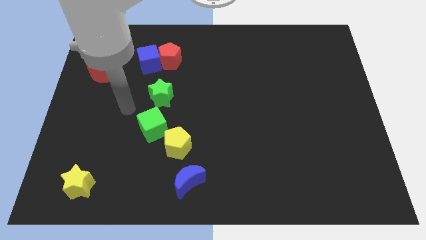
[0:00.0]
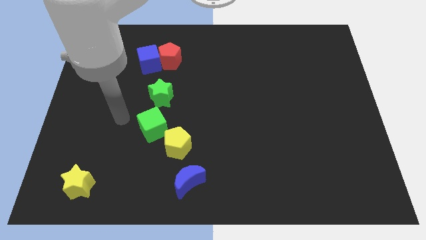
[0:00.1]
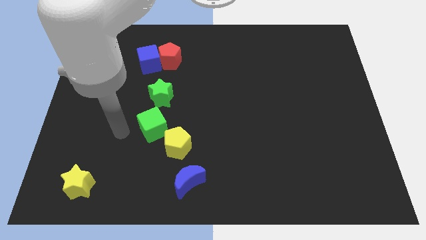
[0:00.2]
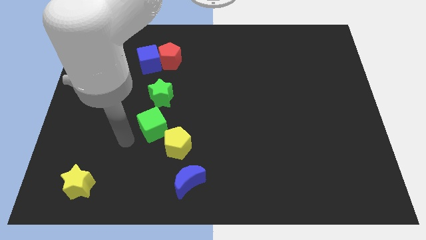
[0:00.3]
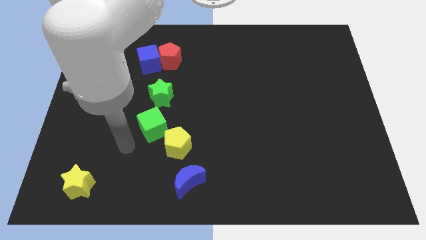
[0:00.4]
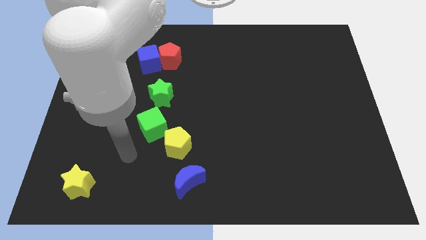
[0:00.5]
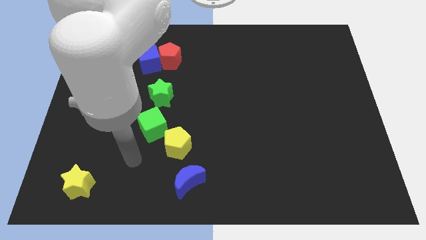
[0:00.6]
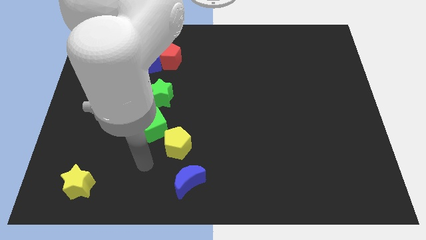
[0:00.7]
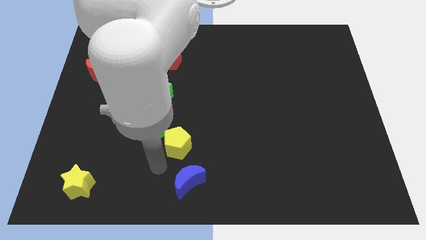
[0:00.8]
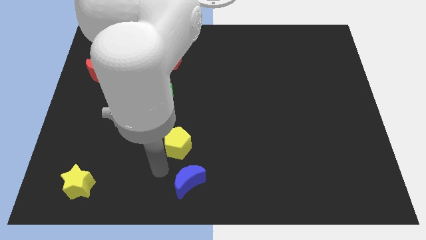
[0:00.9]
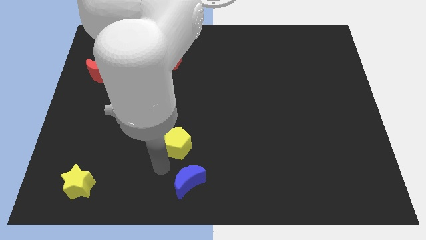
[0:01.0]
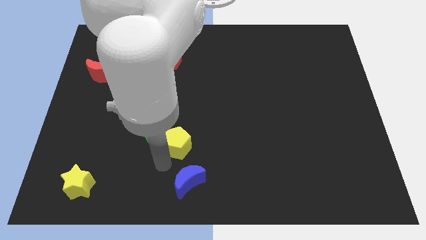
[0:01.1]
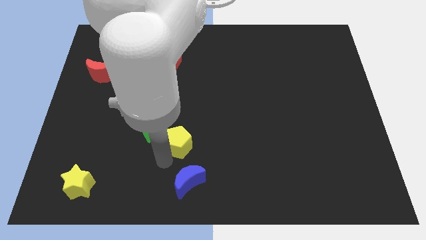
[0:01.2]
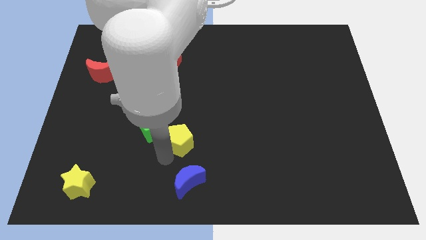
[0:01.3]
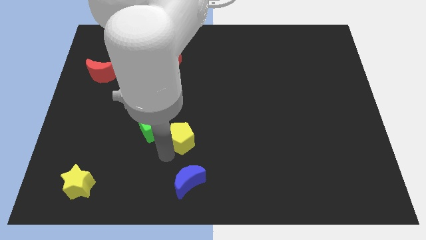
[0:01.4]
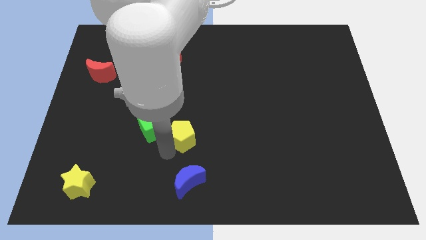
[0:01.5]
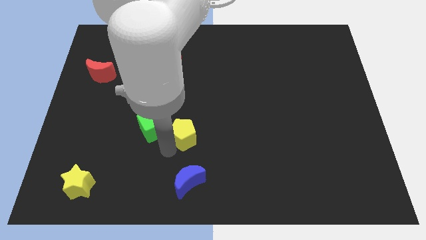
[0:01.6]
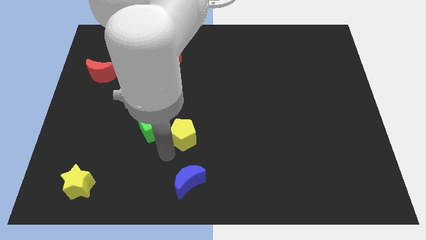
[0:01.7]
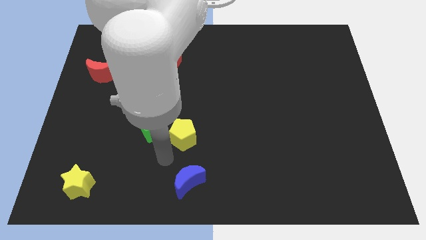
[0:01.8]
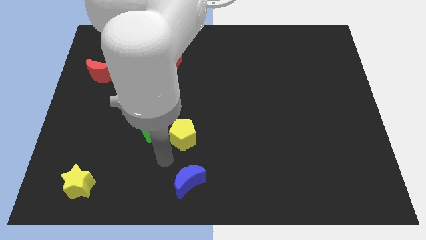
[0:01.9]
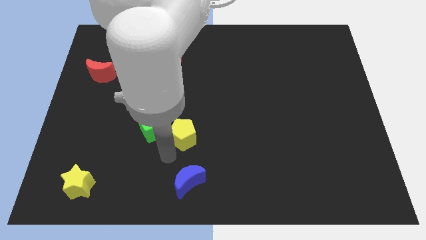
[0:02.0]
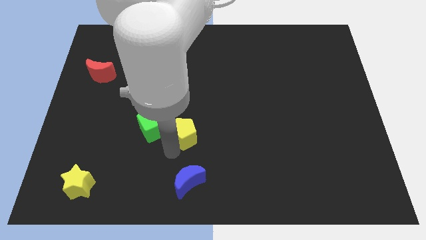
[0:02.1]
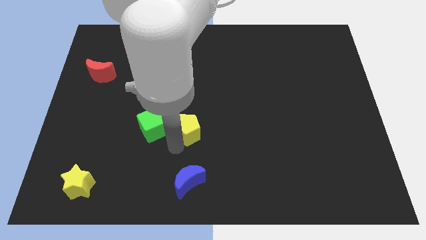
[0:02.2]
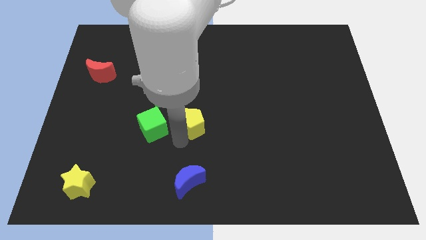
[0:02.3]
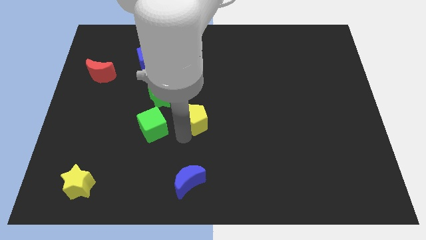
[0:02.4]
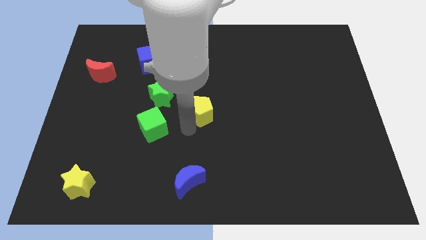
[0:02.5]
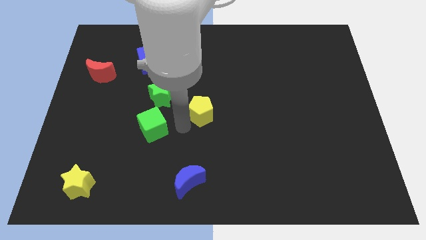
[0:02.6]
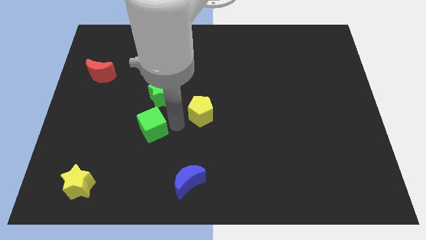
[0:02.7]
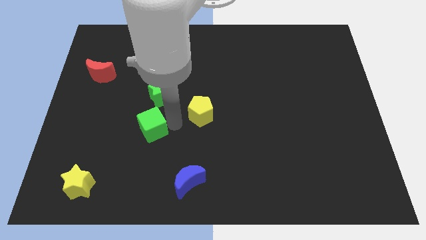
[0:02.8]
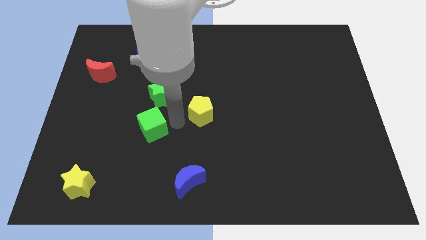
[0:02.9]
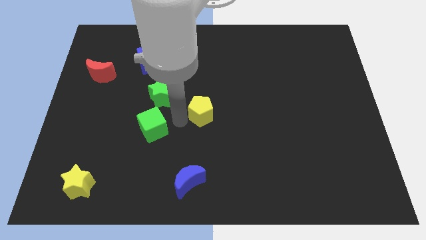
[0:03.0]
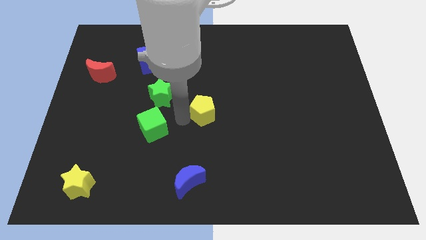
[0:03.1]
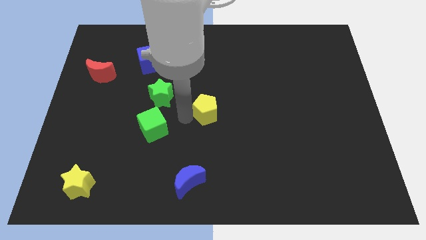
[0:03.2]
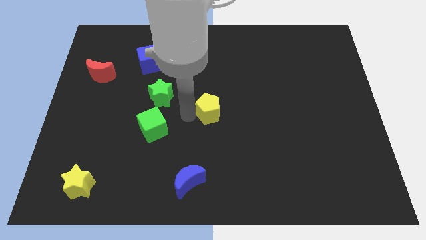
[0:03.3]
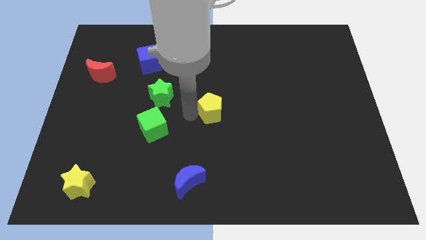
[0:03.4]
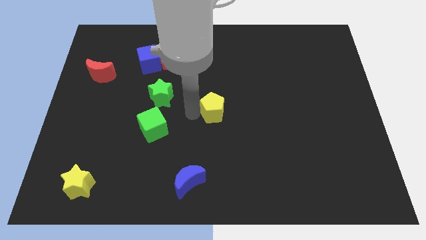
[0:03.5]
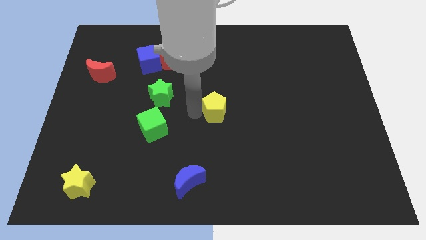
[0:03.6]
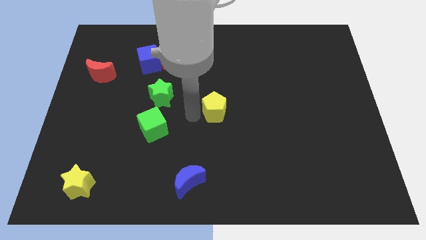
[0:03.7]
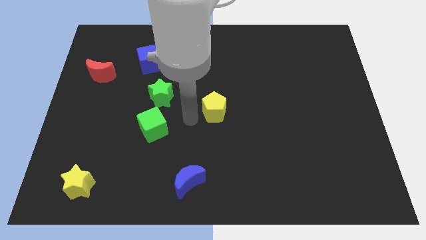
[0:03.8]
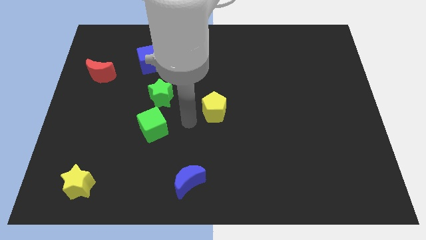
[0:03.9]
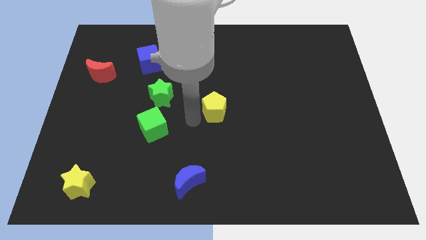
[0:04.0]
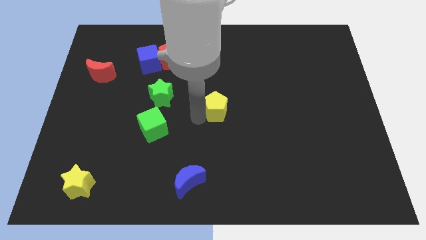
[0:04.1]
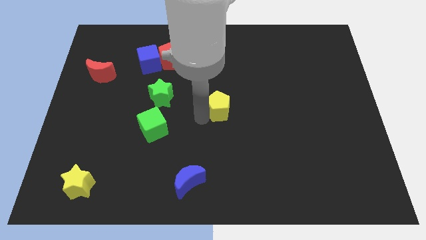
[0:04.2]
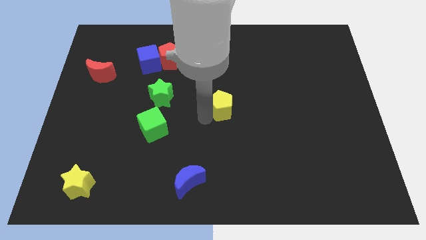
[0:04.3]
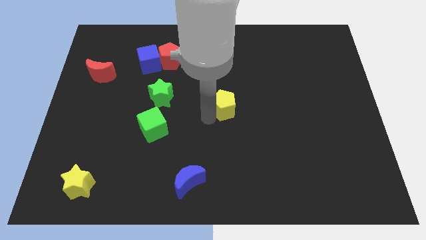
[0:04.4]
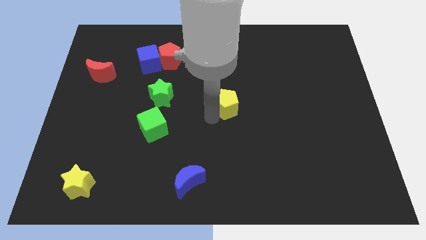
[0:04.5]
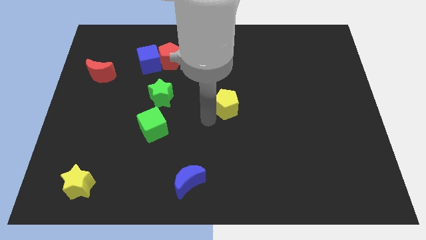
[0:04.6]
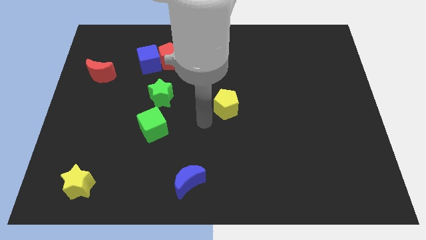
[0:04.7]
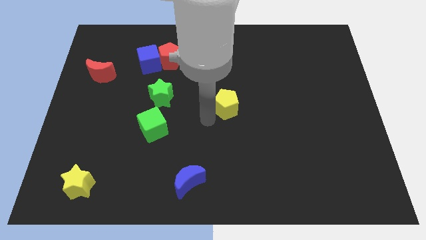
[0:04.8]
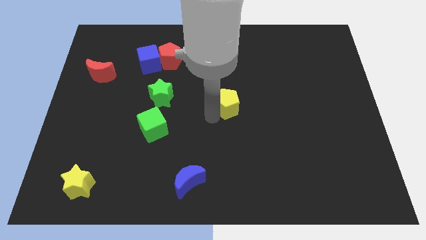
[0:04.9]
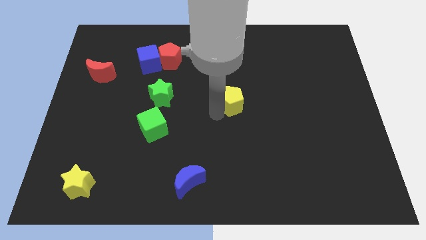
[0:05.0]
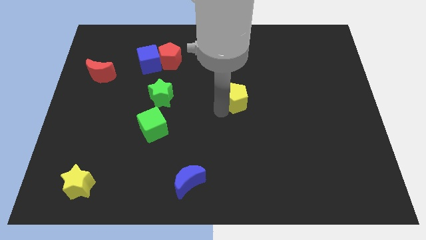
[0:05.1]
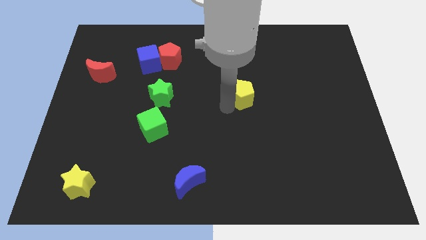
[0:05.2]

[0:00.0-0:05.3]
slide the yellow pentagon diagonally up and to the right

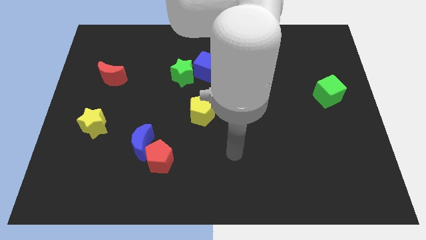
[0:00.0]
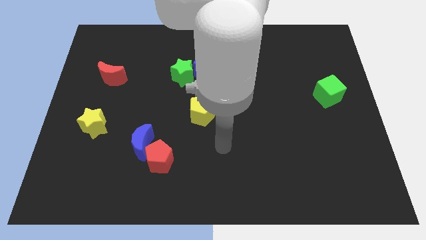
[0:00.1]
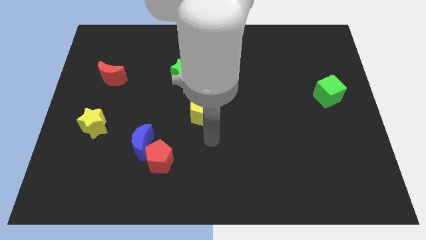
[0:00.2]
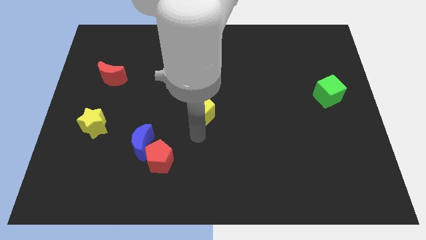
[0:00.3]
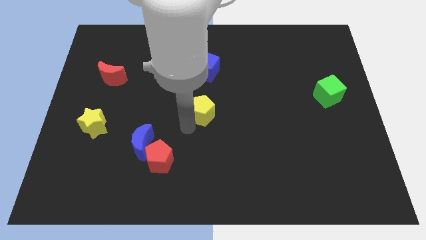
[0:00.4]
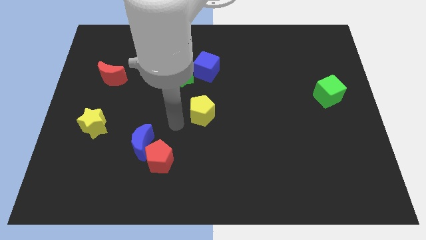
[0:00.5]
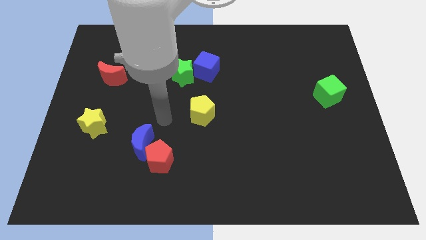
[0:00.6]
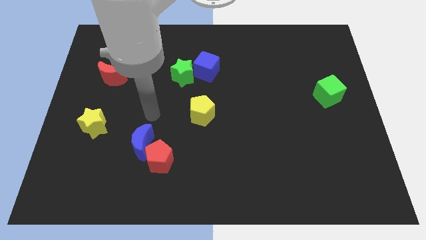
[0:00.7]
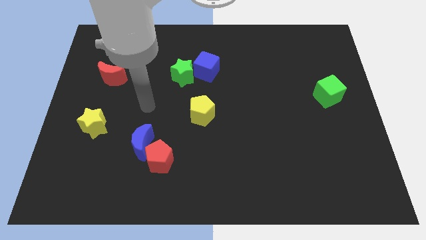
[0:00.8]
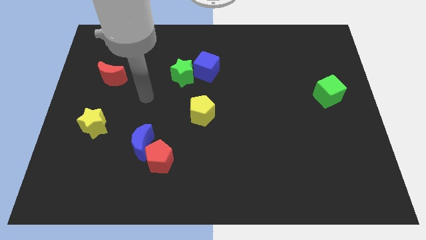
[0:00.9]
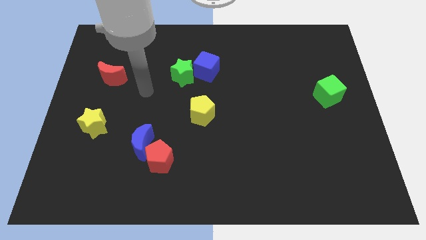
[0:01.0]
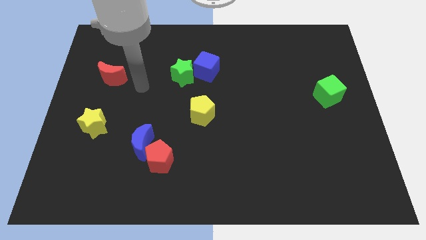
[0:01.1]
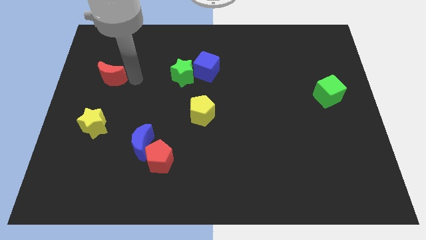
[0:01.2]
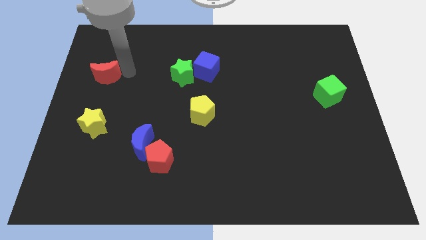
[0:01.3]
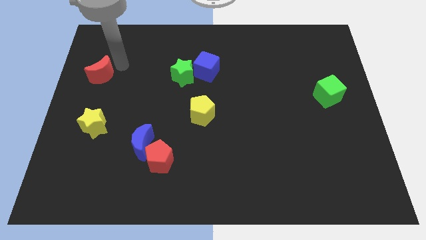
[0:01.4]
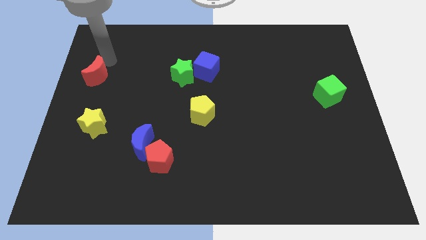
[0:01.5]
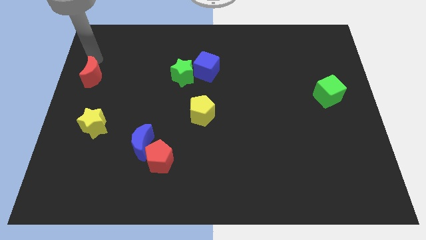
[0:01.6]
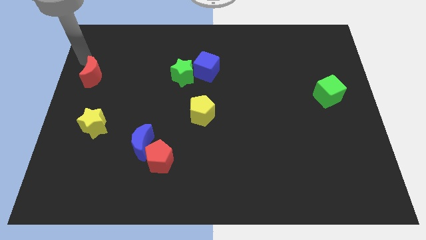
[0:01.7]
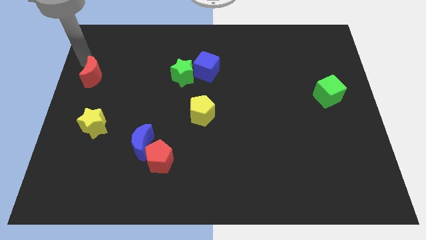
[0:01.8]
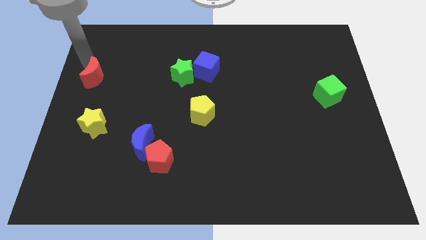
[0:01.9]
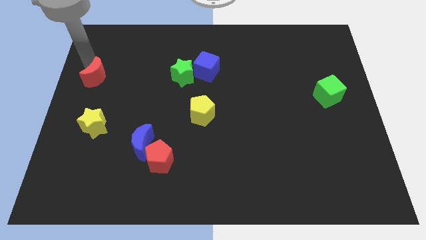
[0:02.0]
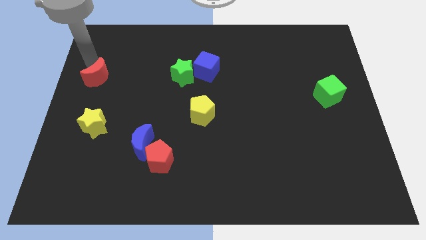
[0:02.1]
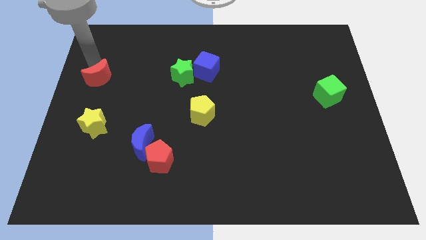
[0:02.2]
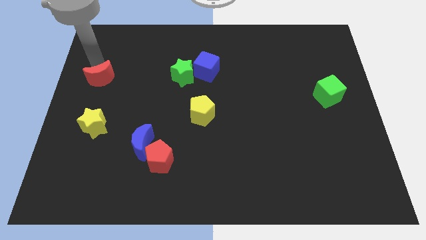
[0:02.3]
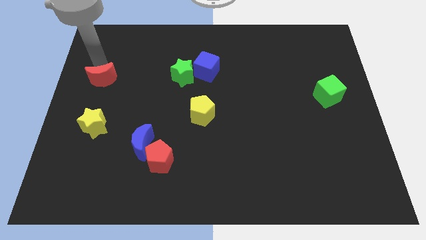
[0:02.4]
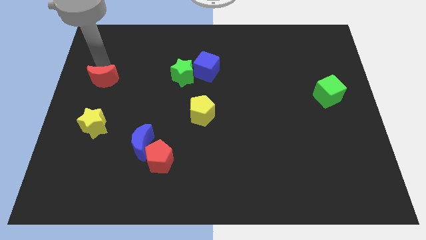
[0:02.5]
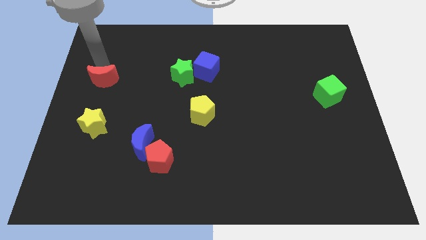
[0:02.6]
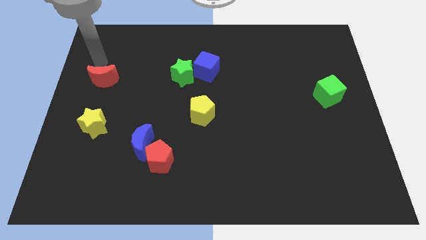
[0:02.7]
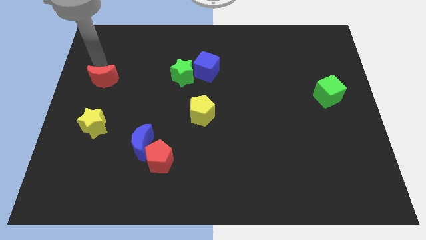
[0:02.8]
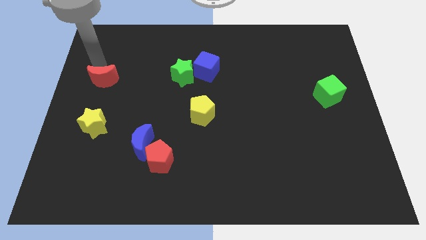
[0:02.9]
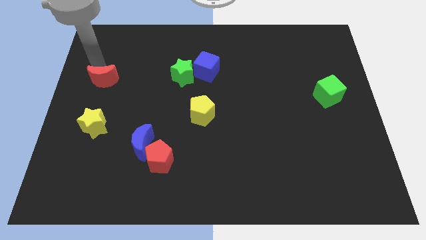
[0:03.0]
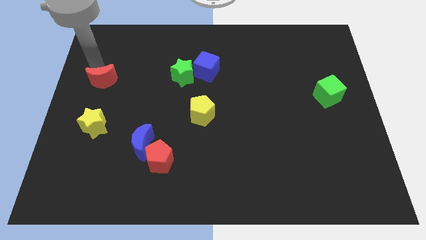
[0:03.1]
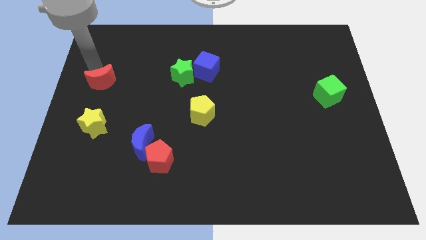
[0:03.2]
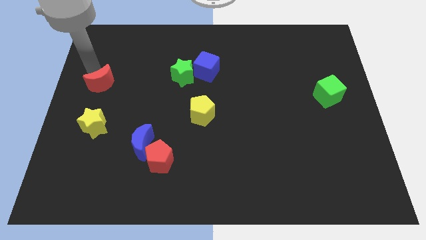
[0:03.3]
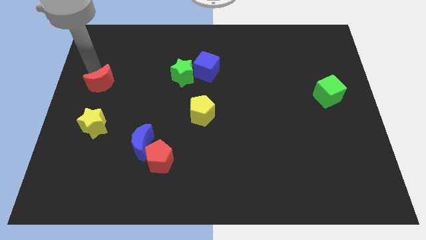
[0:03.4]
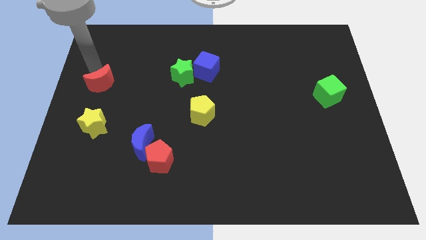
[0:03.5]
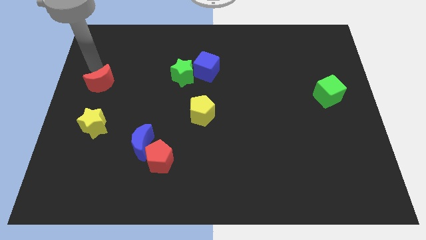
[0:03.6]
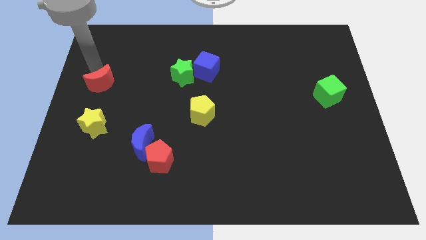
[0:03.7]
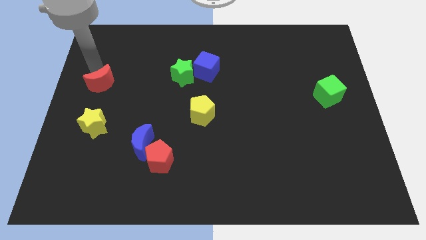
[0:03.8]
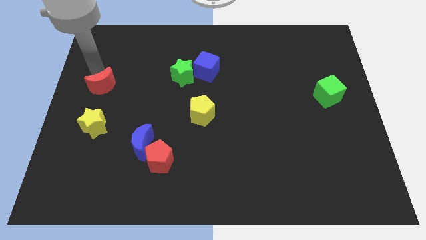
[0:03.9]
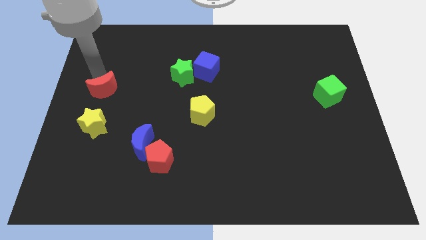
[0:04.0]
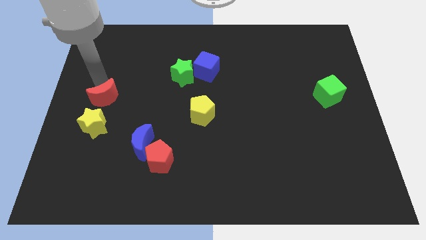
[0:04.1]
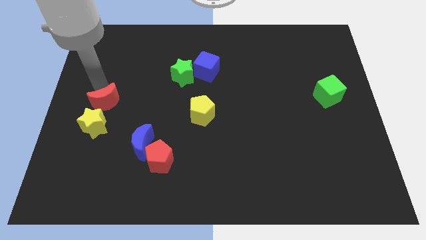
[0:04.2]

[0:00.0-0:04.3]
slightly slide the red moon down
